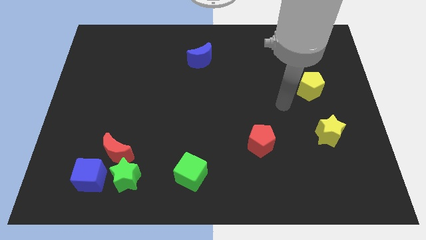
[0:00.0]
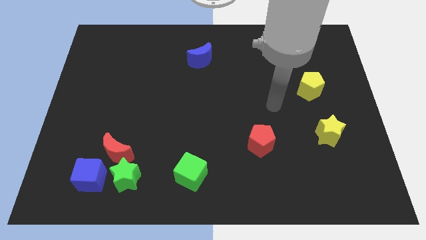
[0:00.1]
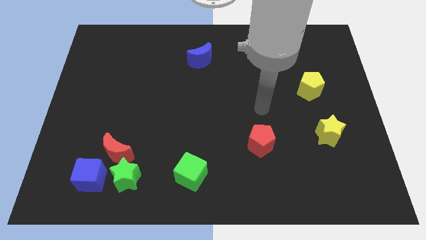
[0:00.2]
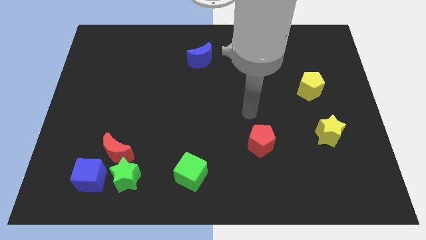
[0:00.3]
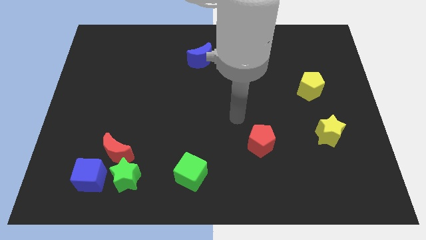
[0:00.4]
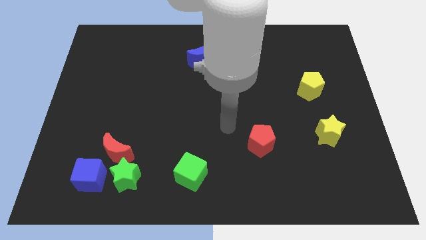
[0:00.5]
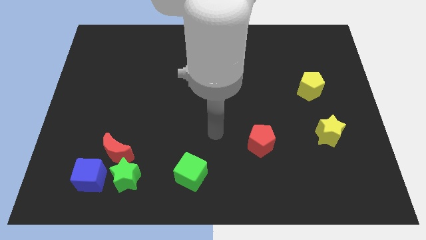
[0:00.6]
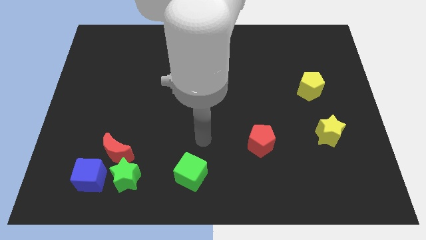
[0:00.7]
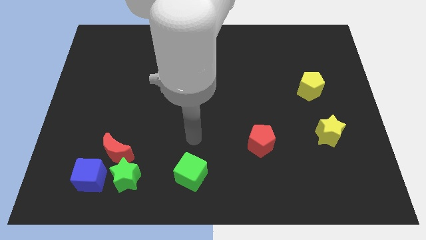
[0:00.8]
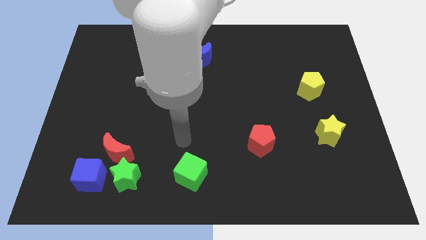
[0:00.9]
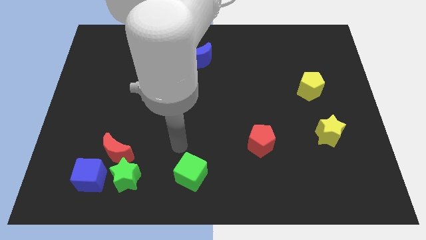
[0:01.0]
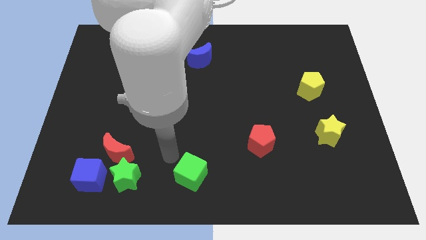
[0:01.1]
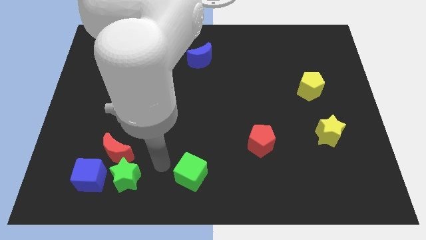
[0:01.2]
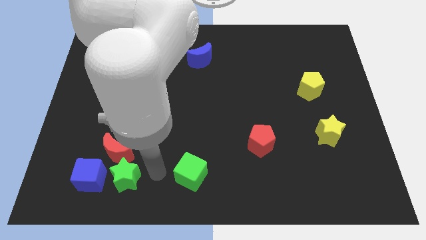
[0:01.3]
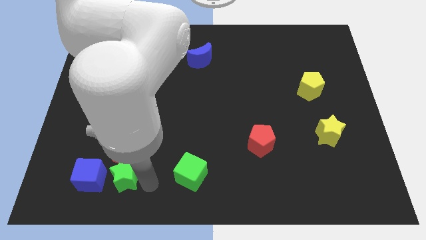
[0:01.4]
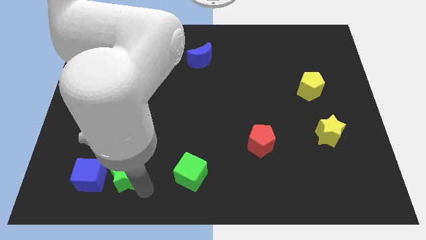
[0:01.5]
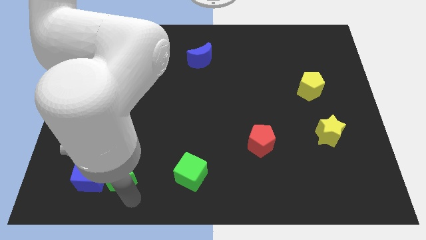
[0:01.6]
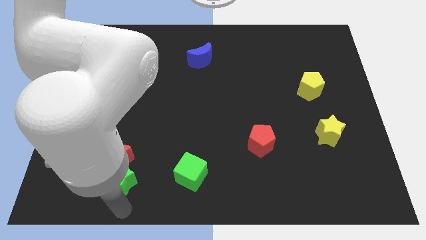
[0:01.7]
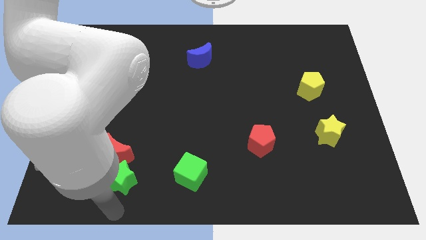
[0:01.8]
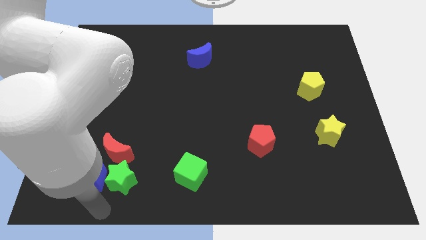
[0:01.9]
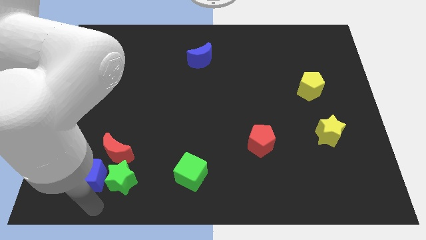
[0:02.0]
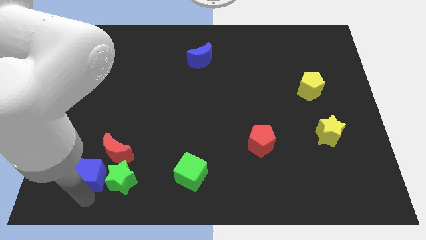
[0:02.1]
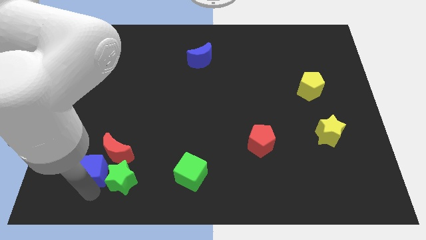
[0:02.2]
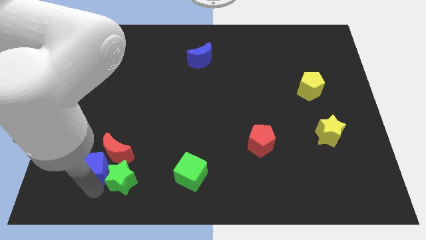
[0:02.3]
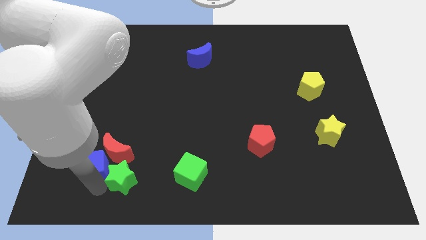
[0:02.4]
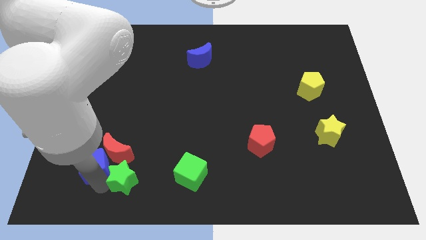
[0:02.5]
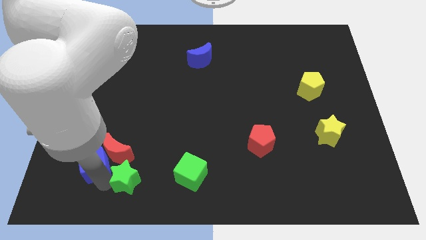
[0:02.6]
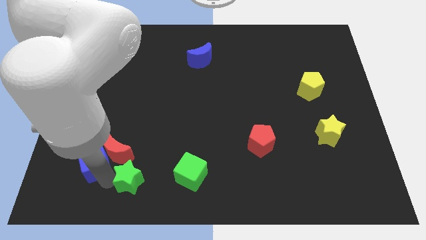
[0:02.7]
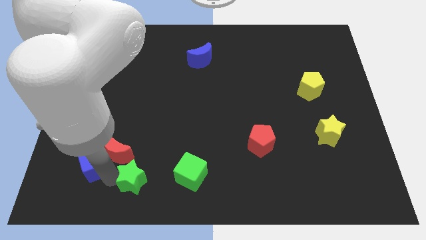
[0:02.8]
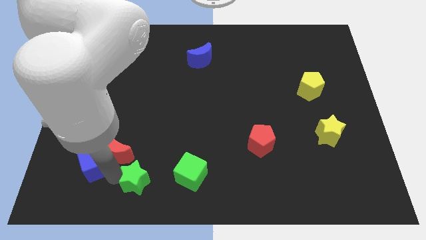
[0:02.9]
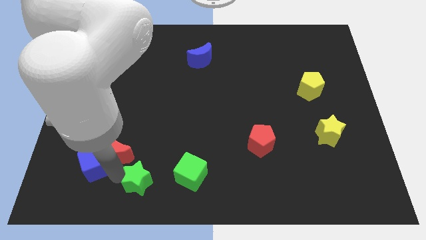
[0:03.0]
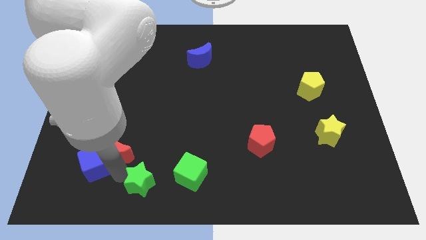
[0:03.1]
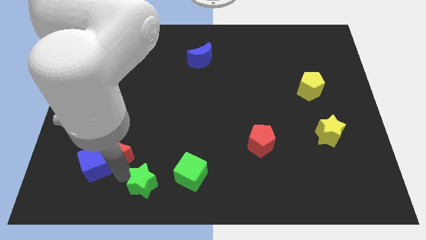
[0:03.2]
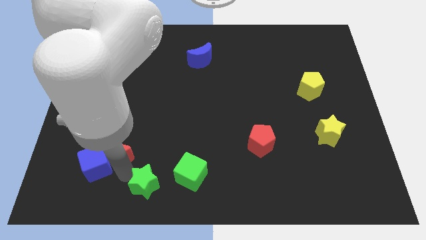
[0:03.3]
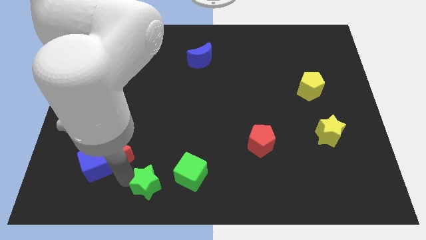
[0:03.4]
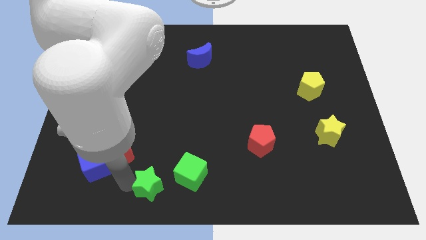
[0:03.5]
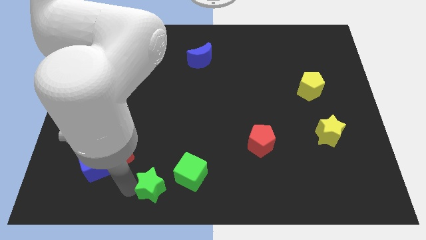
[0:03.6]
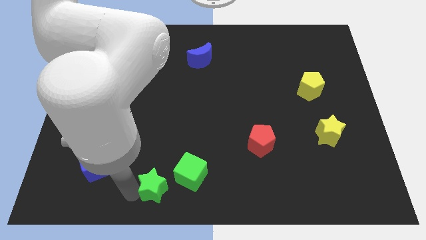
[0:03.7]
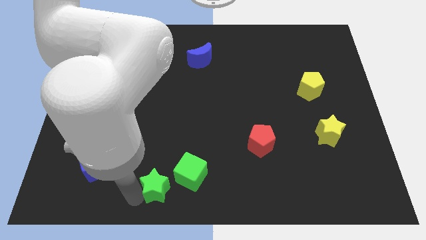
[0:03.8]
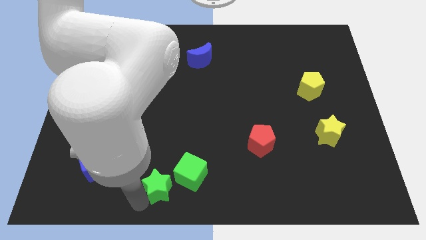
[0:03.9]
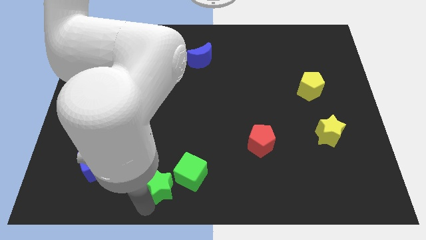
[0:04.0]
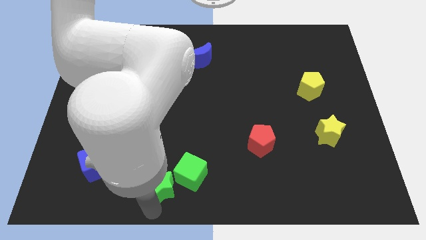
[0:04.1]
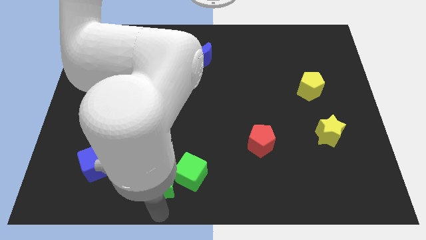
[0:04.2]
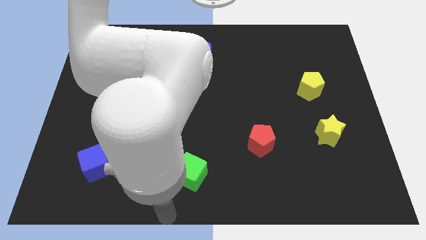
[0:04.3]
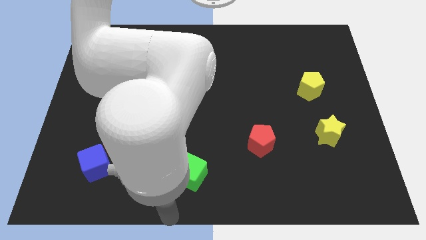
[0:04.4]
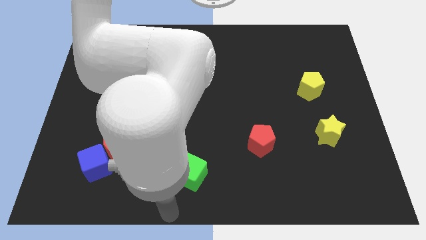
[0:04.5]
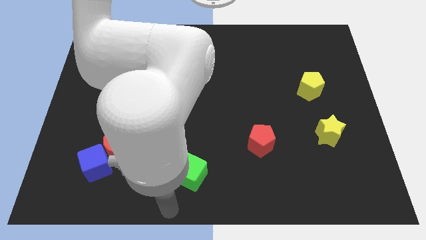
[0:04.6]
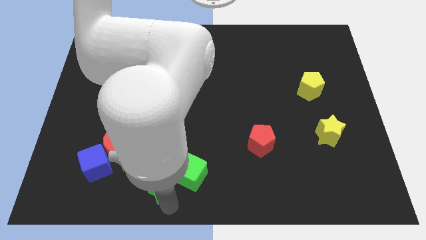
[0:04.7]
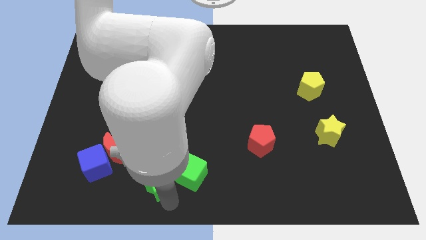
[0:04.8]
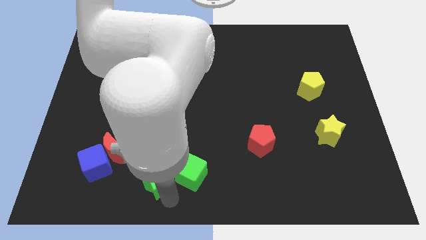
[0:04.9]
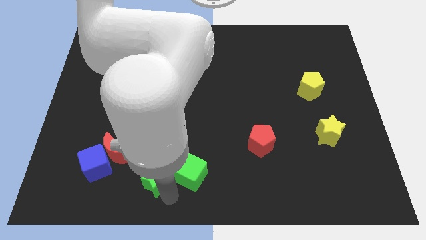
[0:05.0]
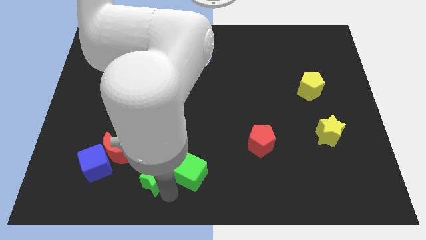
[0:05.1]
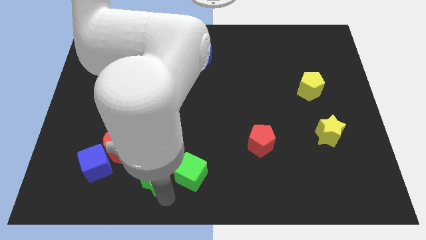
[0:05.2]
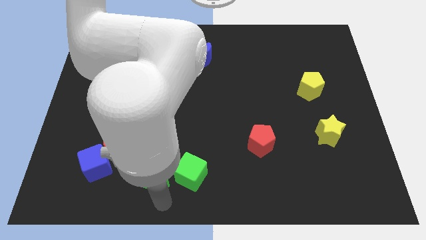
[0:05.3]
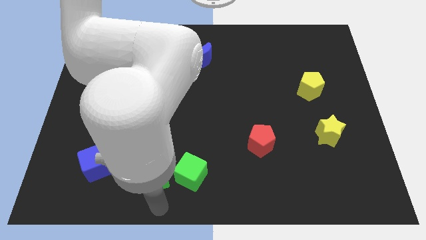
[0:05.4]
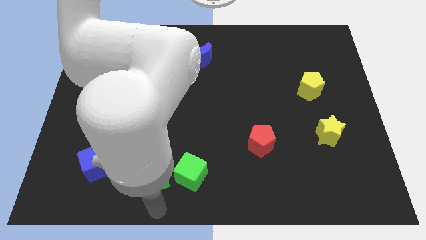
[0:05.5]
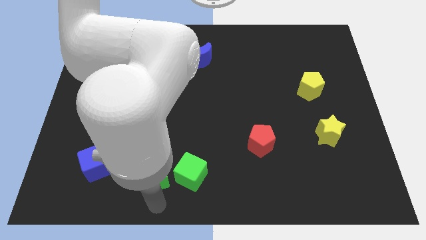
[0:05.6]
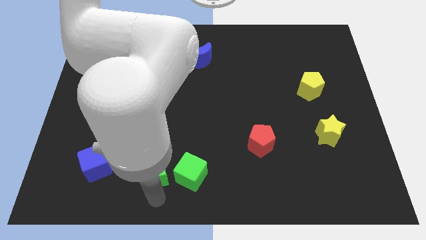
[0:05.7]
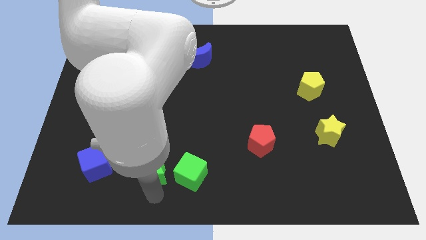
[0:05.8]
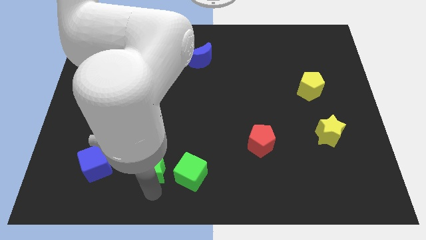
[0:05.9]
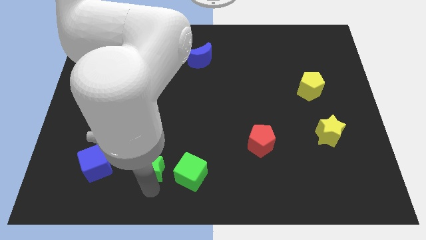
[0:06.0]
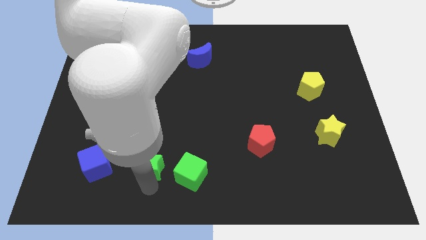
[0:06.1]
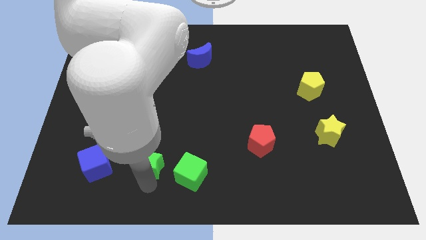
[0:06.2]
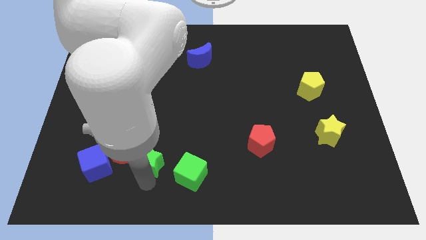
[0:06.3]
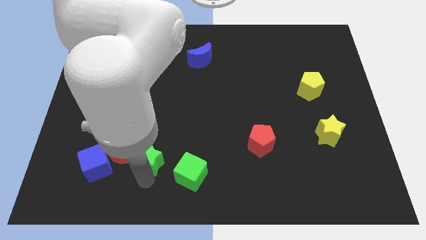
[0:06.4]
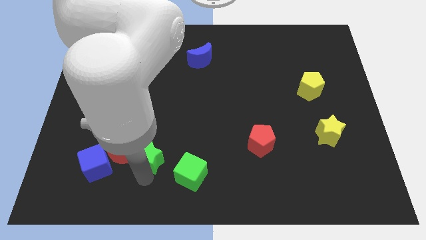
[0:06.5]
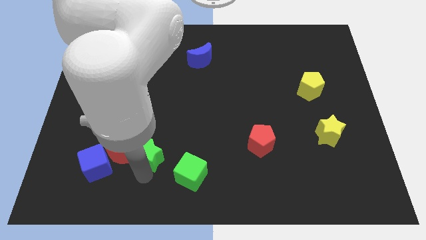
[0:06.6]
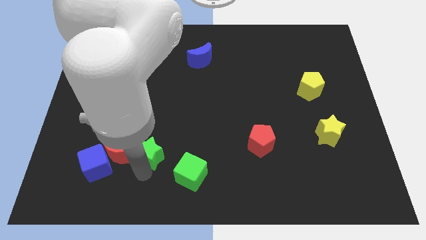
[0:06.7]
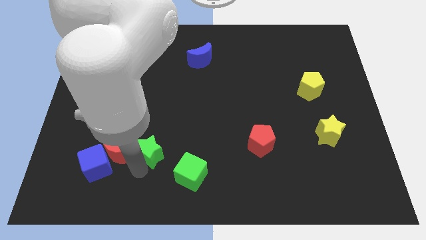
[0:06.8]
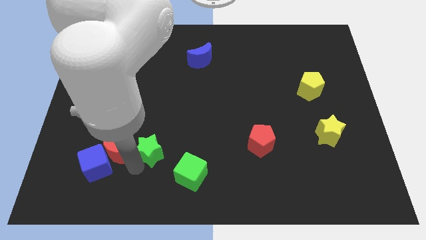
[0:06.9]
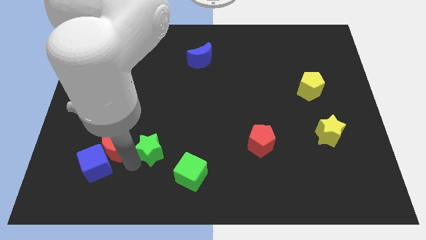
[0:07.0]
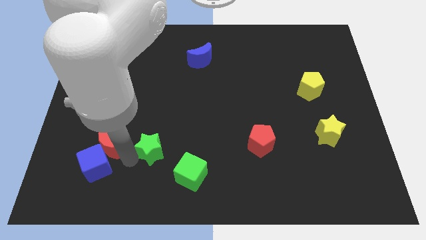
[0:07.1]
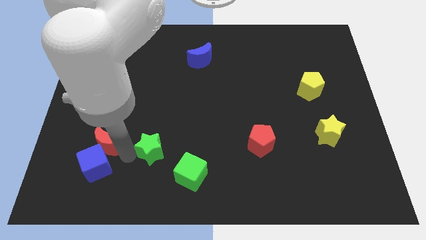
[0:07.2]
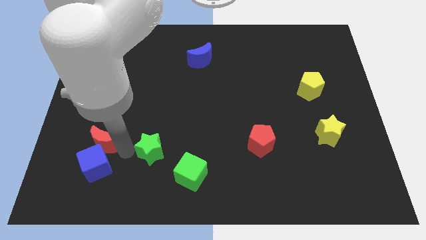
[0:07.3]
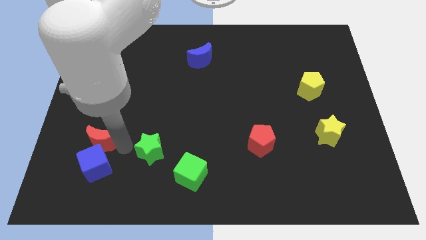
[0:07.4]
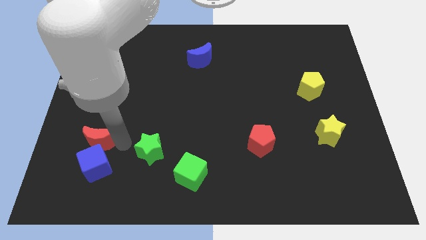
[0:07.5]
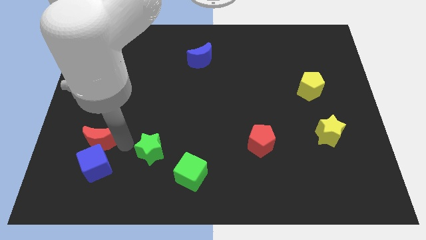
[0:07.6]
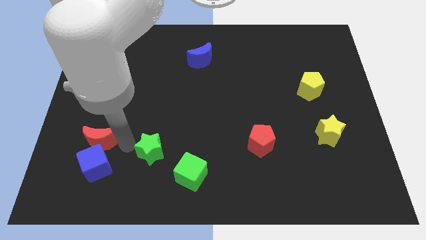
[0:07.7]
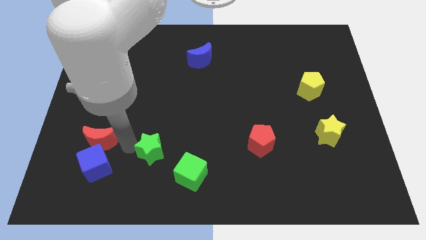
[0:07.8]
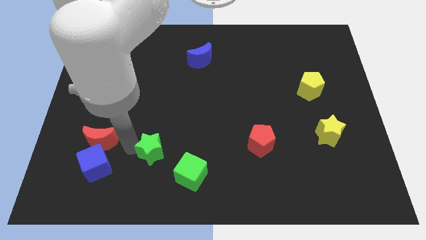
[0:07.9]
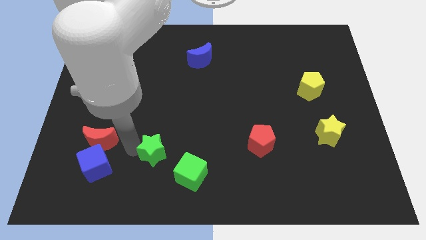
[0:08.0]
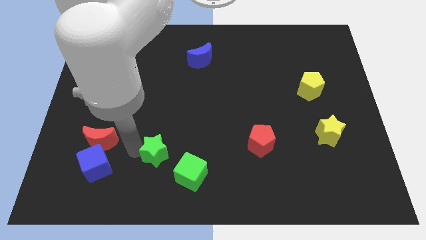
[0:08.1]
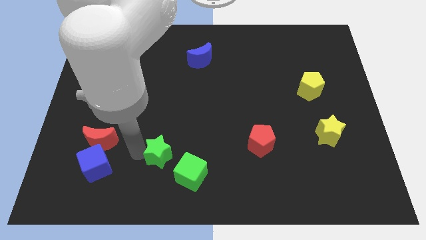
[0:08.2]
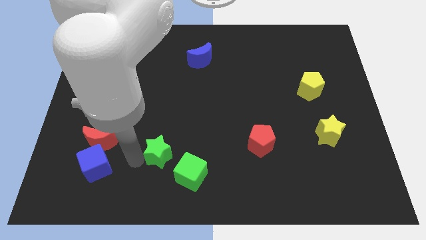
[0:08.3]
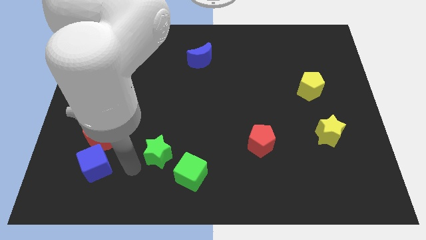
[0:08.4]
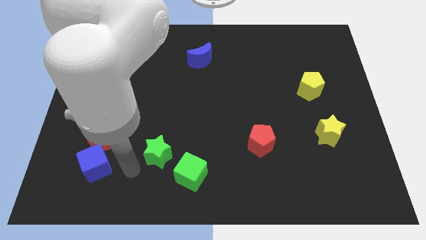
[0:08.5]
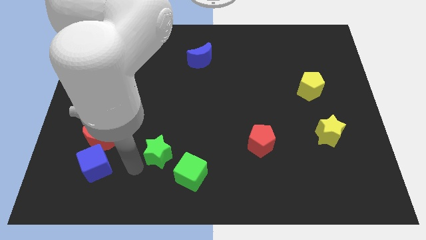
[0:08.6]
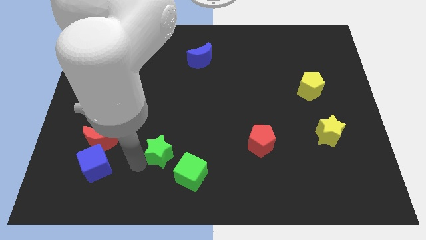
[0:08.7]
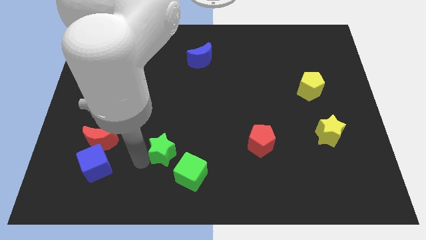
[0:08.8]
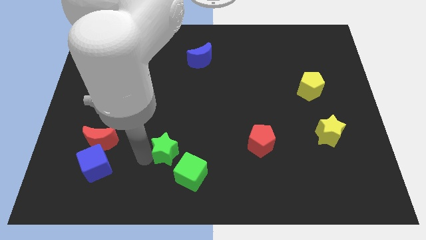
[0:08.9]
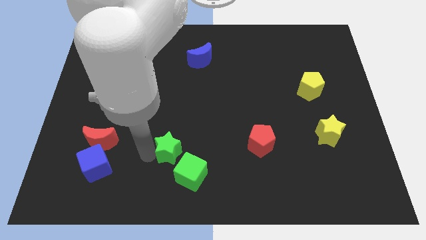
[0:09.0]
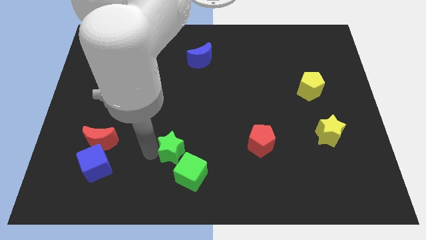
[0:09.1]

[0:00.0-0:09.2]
move the green star to the top of the green cube
